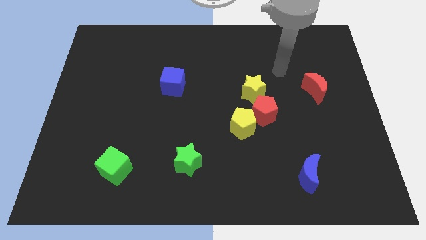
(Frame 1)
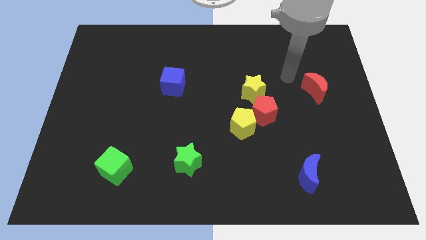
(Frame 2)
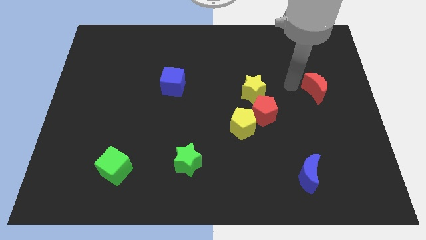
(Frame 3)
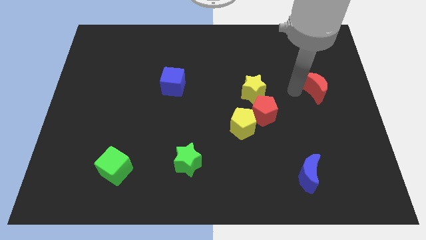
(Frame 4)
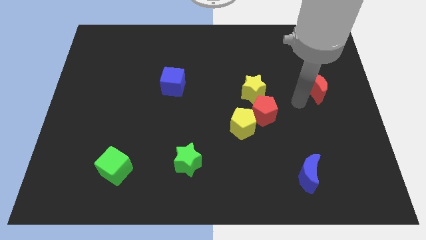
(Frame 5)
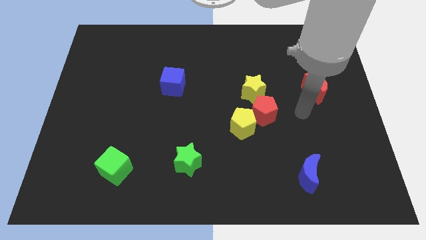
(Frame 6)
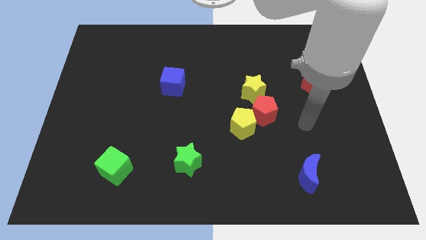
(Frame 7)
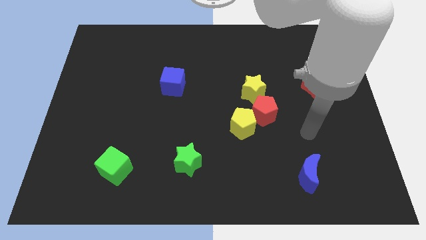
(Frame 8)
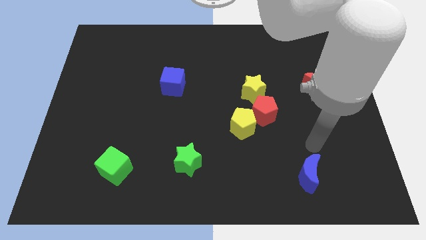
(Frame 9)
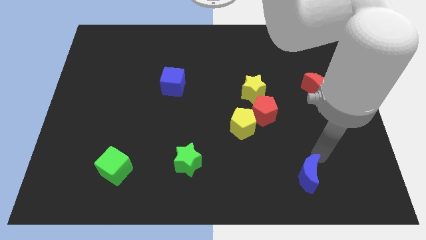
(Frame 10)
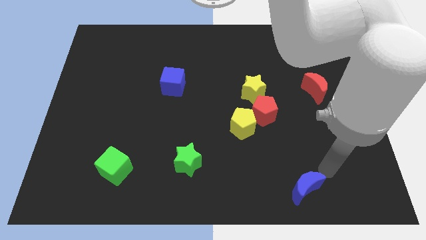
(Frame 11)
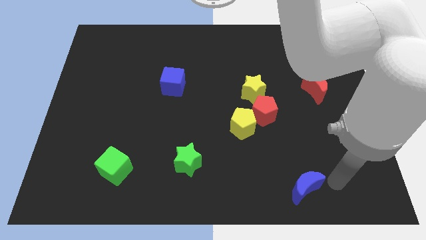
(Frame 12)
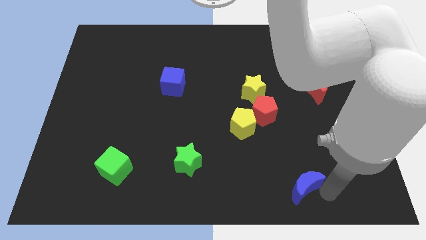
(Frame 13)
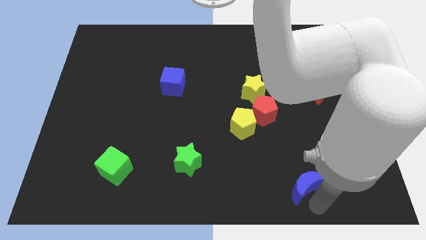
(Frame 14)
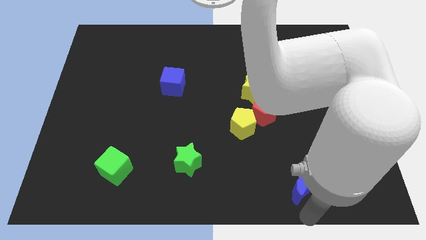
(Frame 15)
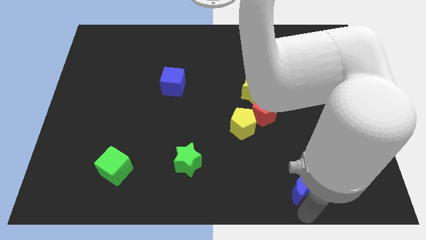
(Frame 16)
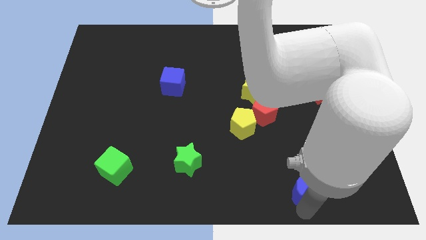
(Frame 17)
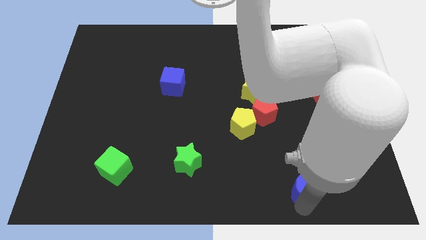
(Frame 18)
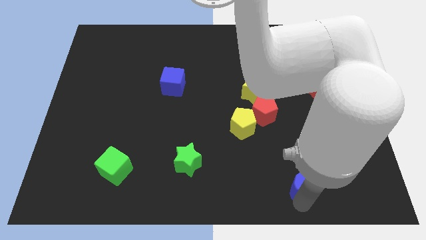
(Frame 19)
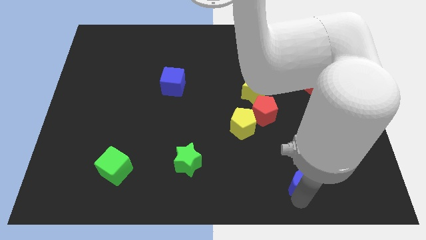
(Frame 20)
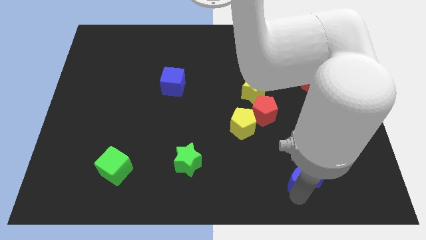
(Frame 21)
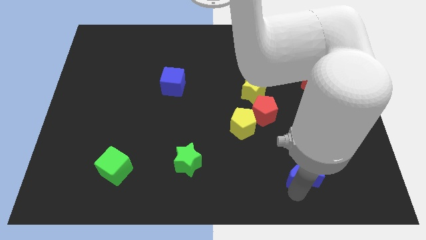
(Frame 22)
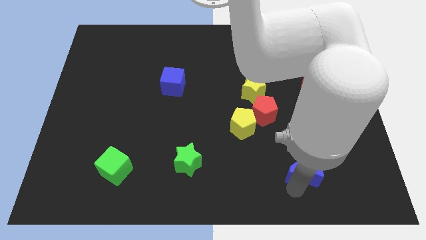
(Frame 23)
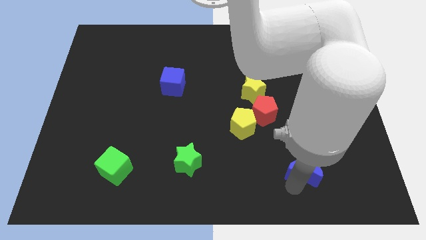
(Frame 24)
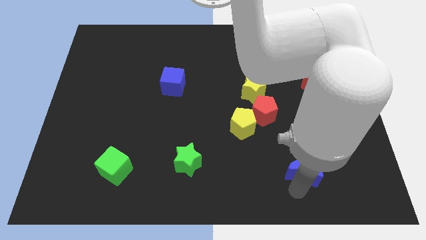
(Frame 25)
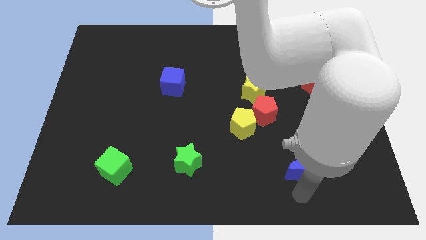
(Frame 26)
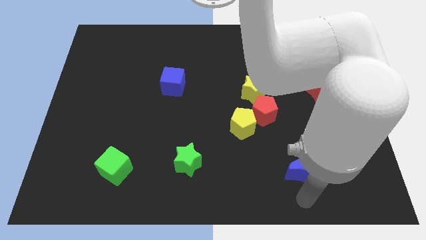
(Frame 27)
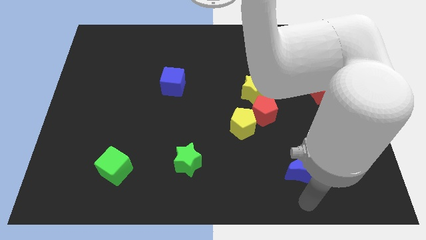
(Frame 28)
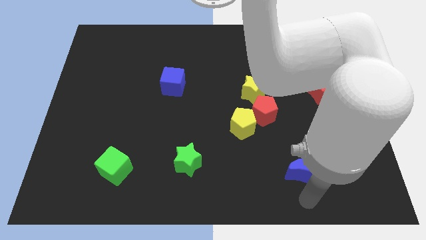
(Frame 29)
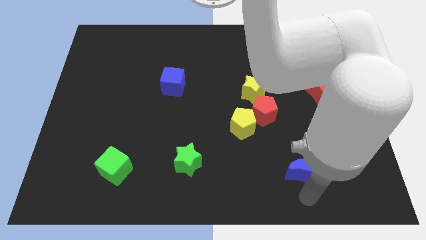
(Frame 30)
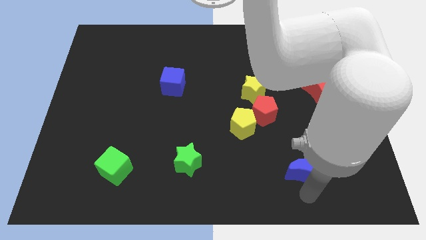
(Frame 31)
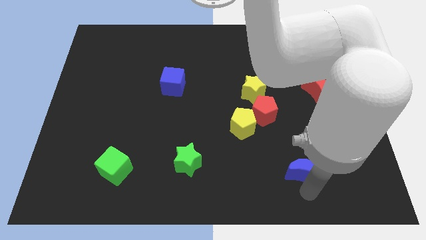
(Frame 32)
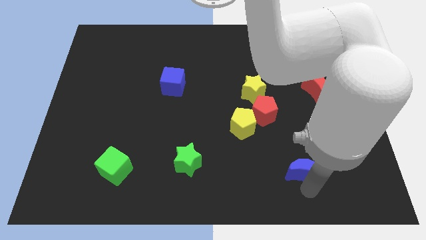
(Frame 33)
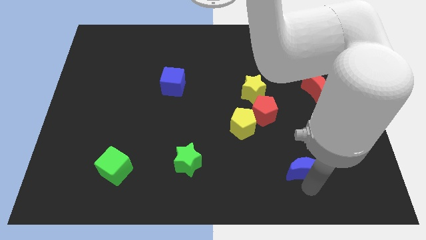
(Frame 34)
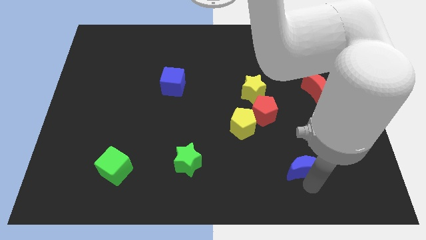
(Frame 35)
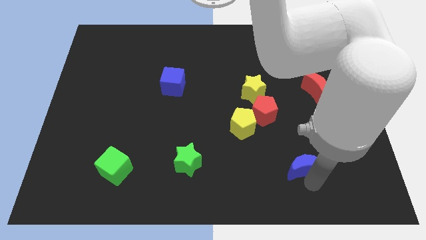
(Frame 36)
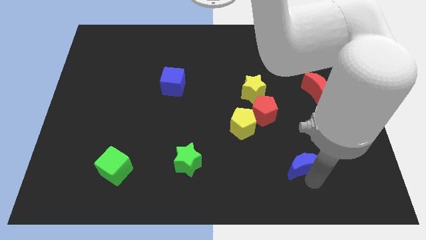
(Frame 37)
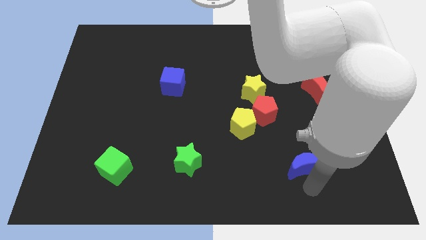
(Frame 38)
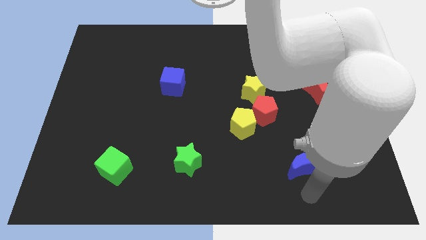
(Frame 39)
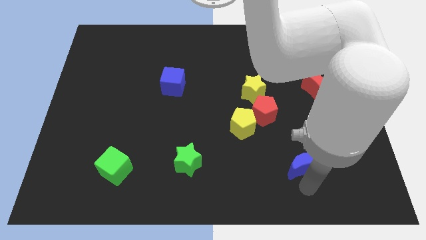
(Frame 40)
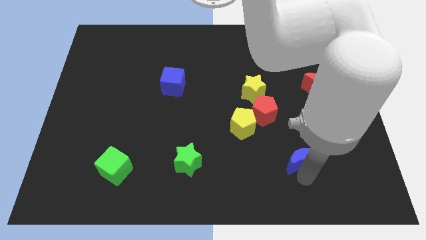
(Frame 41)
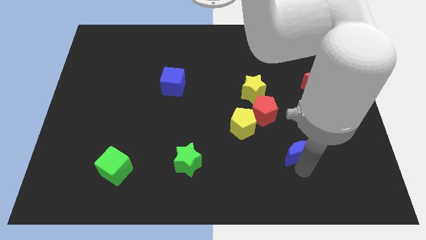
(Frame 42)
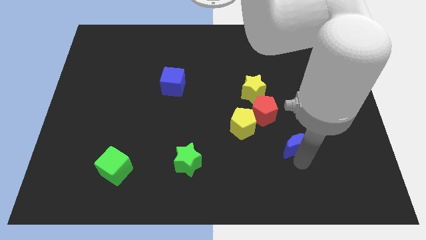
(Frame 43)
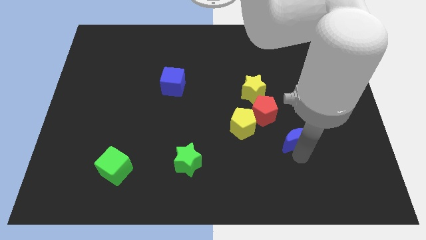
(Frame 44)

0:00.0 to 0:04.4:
slightly push the blue moon upwards

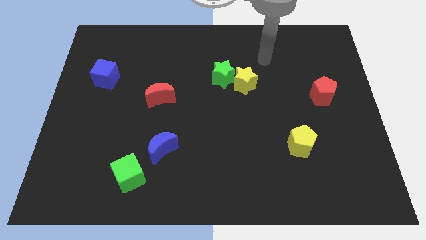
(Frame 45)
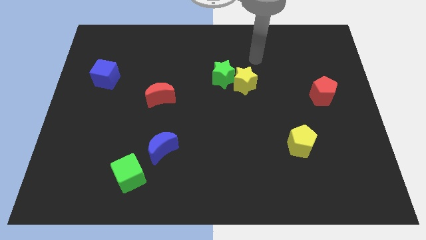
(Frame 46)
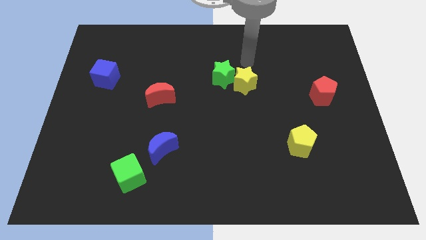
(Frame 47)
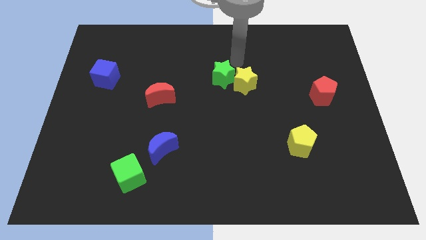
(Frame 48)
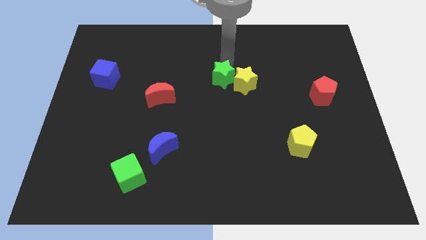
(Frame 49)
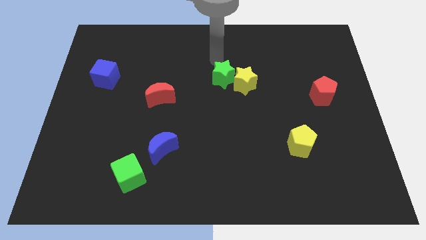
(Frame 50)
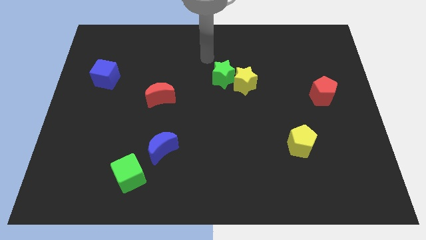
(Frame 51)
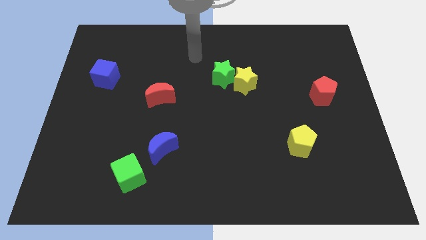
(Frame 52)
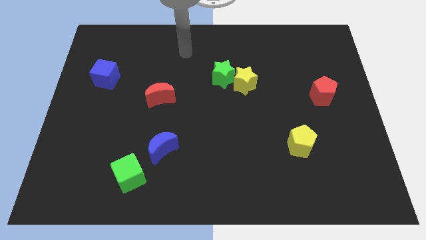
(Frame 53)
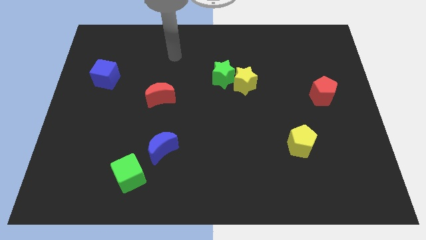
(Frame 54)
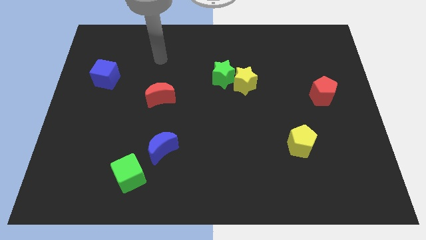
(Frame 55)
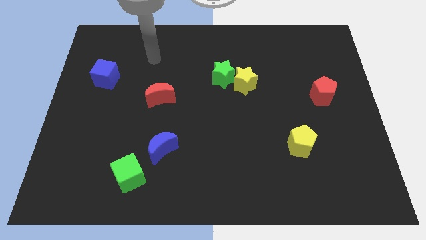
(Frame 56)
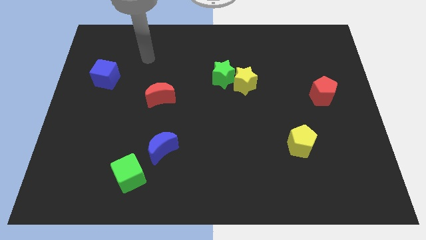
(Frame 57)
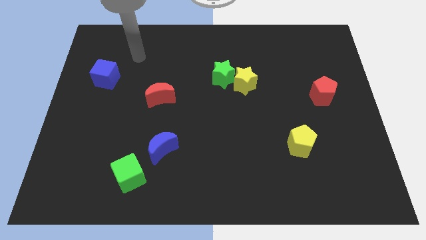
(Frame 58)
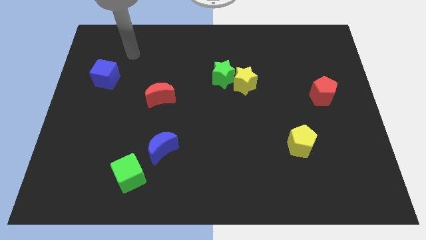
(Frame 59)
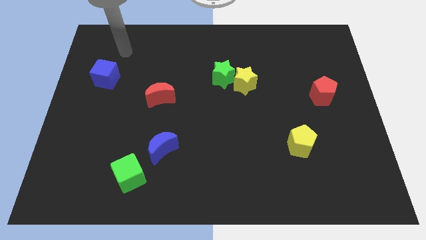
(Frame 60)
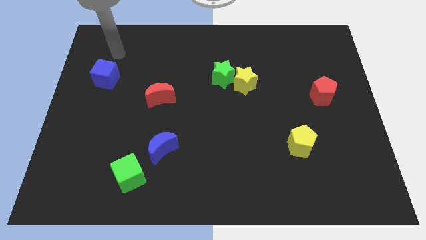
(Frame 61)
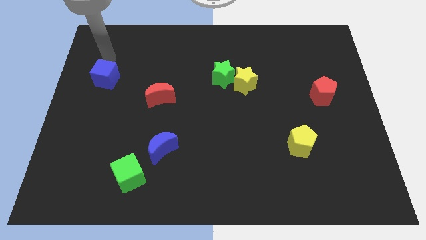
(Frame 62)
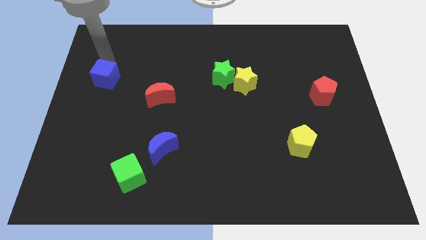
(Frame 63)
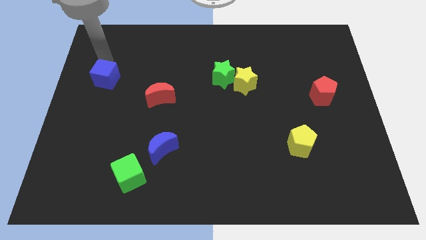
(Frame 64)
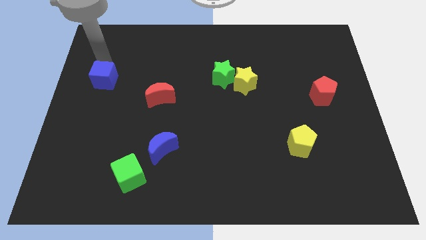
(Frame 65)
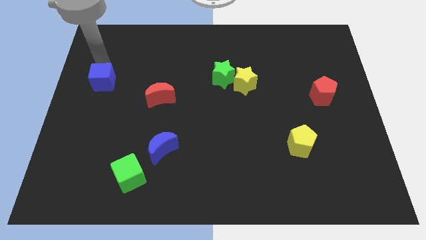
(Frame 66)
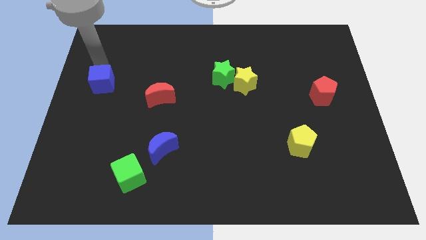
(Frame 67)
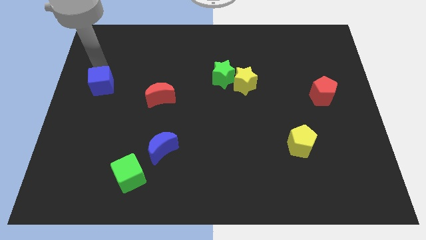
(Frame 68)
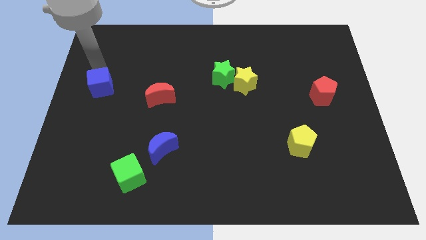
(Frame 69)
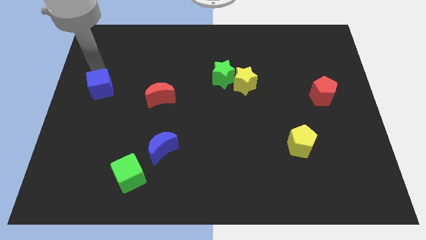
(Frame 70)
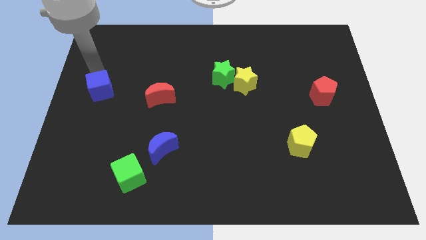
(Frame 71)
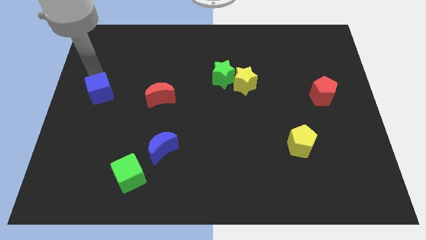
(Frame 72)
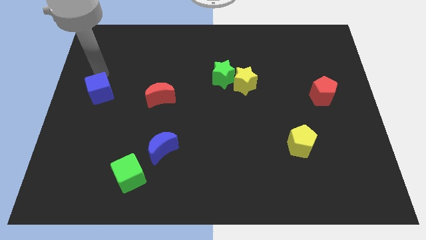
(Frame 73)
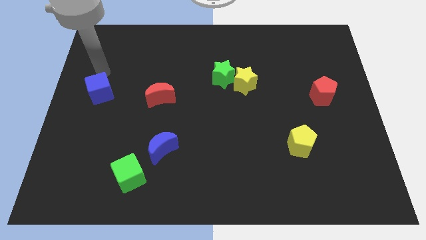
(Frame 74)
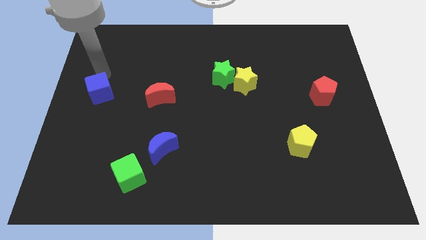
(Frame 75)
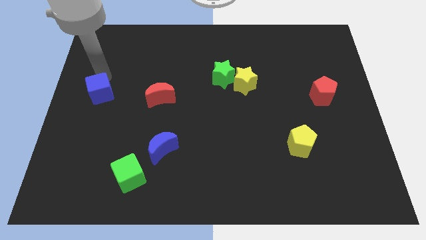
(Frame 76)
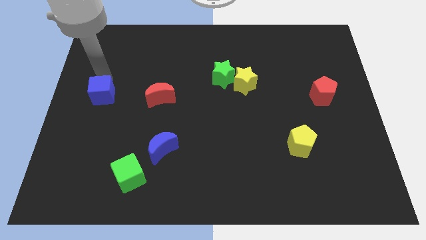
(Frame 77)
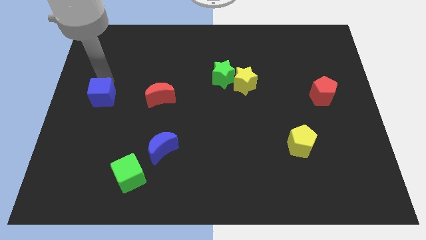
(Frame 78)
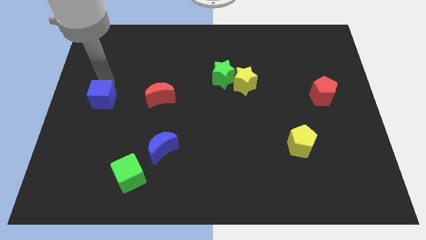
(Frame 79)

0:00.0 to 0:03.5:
slightly move the blue cube downwards
